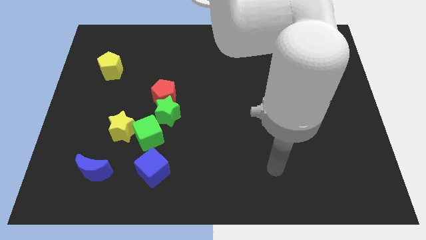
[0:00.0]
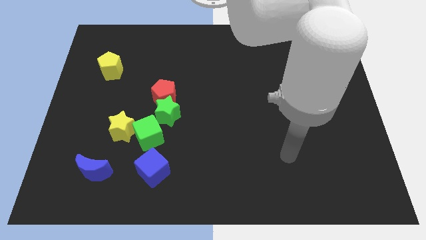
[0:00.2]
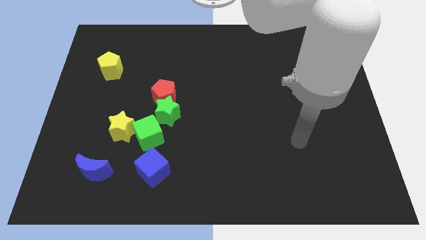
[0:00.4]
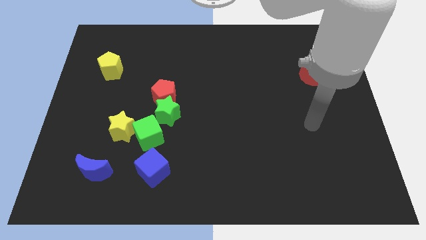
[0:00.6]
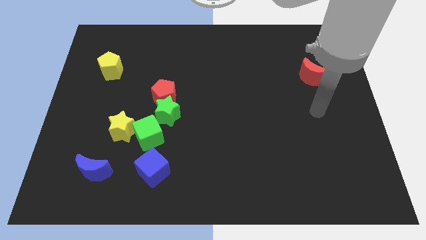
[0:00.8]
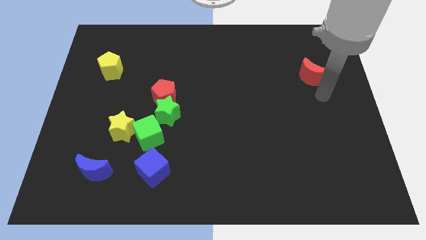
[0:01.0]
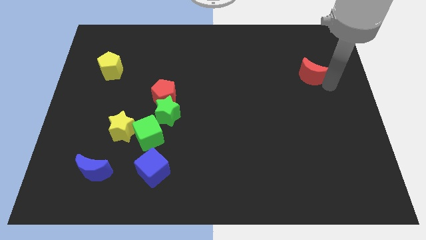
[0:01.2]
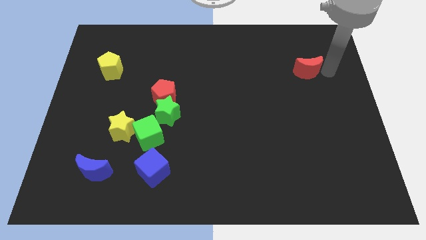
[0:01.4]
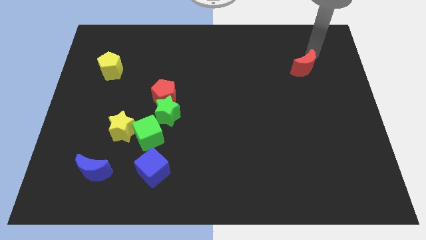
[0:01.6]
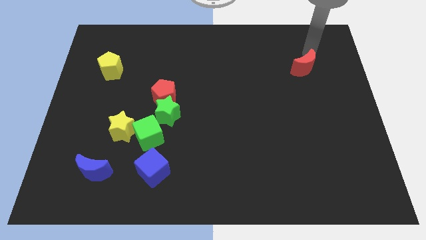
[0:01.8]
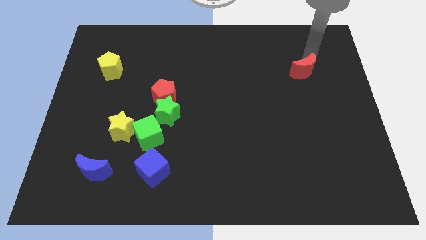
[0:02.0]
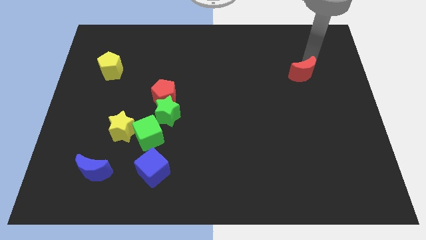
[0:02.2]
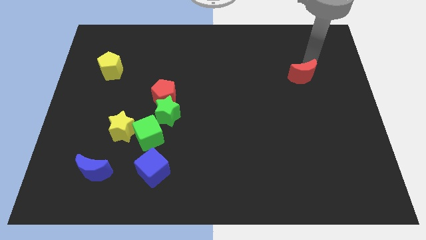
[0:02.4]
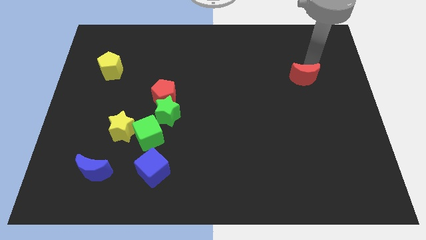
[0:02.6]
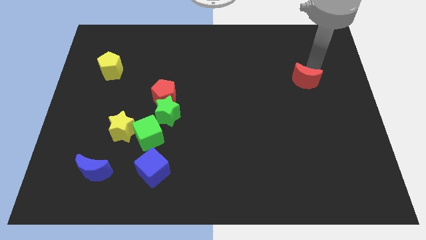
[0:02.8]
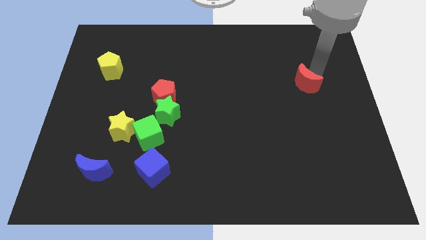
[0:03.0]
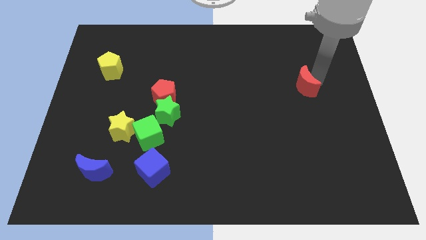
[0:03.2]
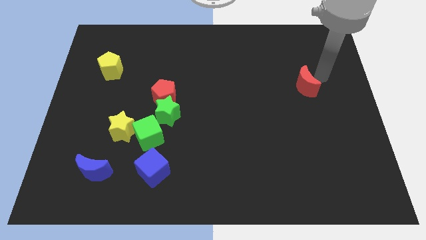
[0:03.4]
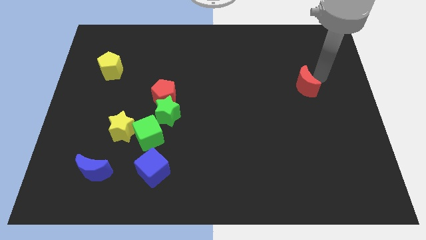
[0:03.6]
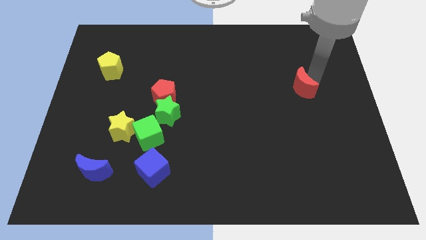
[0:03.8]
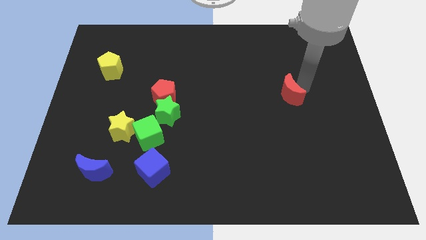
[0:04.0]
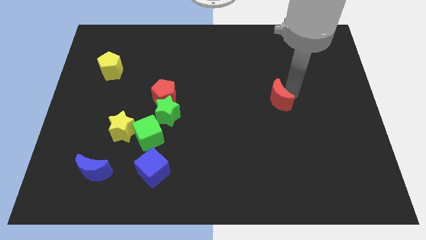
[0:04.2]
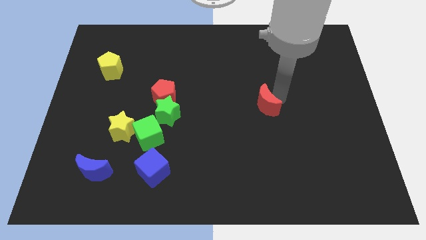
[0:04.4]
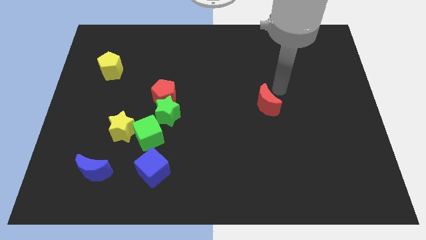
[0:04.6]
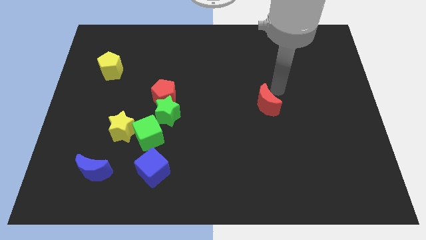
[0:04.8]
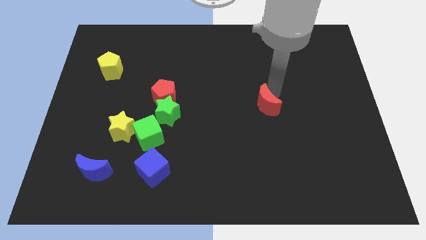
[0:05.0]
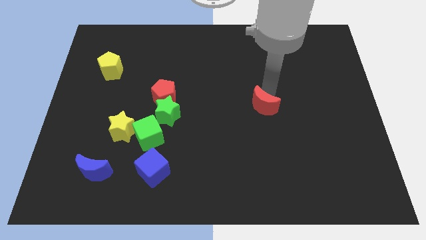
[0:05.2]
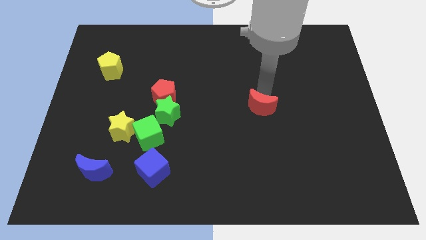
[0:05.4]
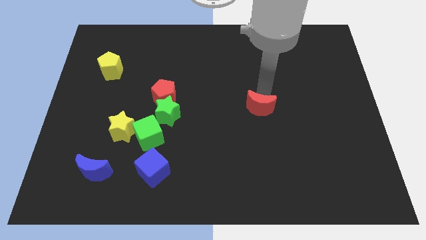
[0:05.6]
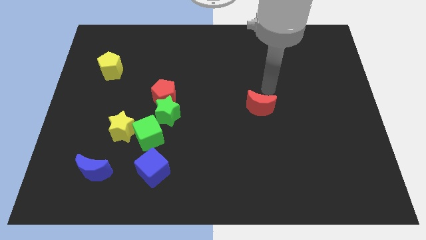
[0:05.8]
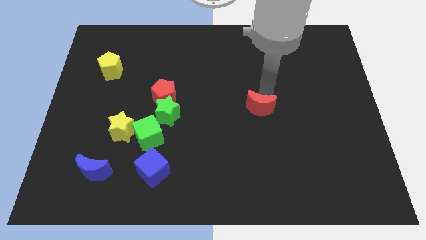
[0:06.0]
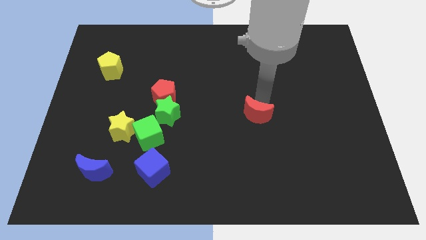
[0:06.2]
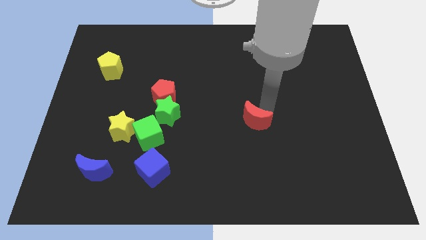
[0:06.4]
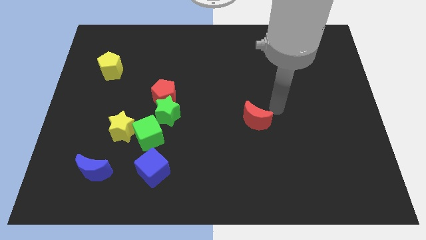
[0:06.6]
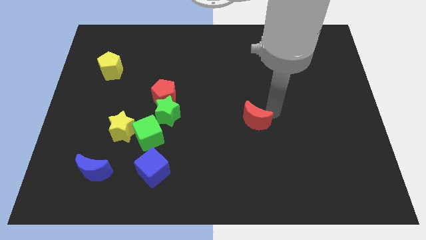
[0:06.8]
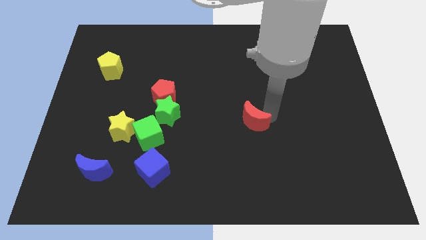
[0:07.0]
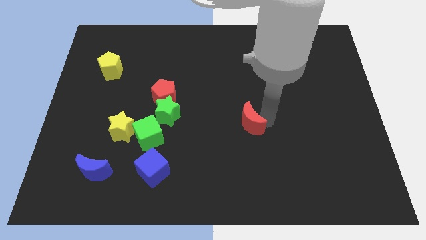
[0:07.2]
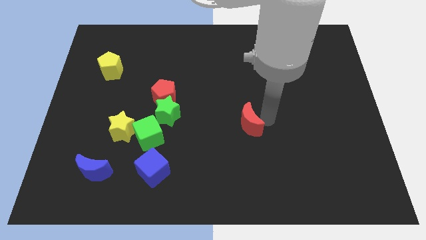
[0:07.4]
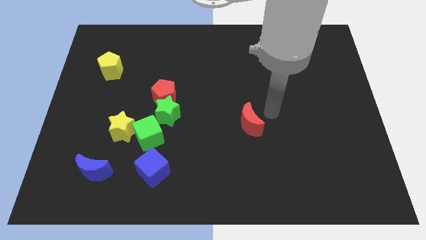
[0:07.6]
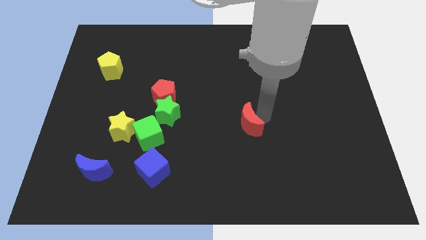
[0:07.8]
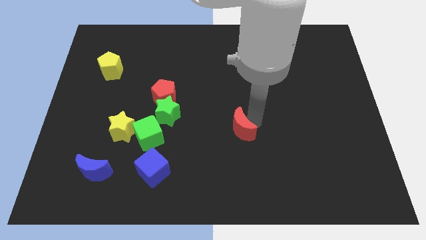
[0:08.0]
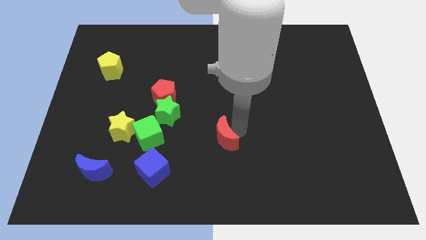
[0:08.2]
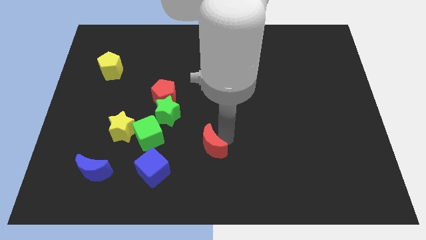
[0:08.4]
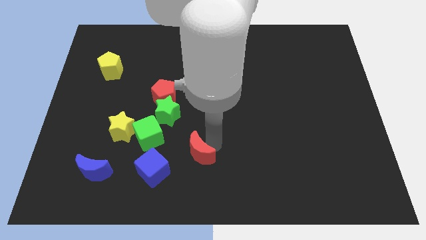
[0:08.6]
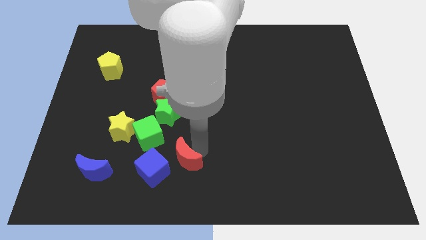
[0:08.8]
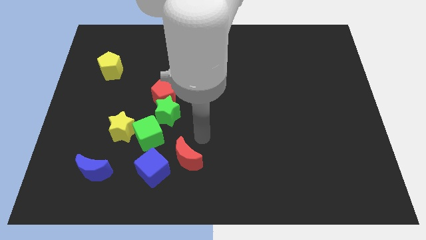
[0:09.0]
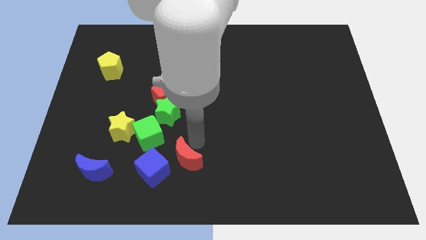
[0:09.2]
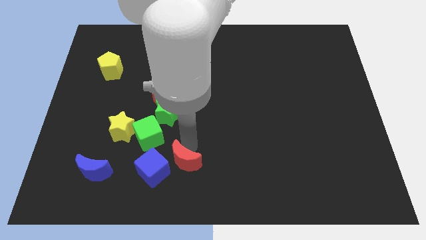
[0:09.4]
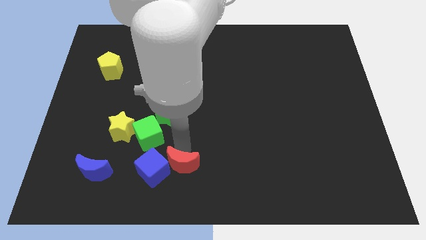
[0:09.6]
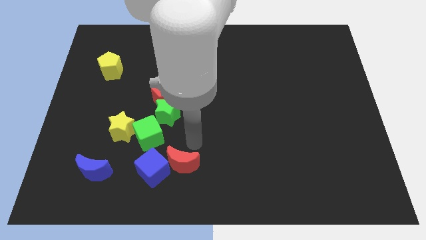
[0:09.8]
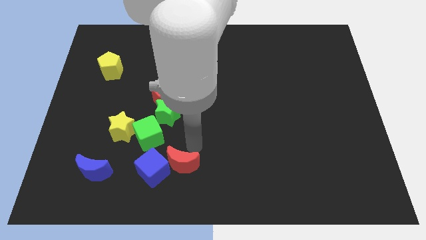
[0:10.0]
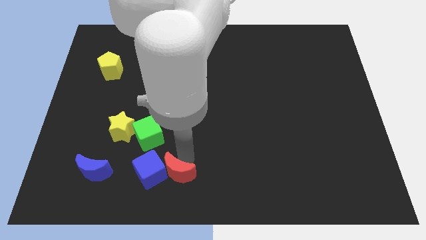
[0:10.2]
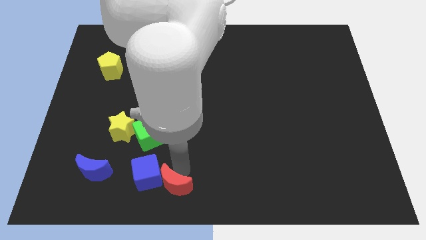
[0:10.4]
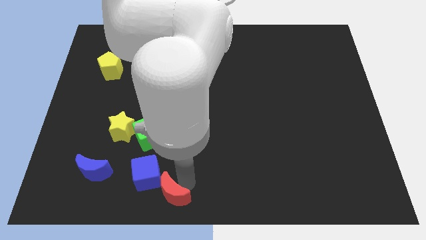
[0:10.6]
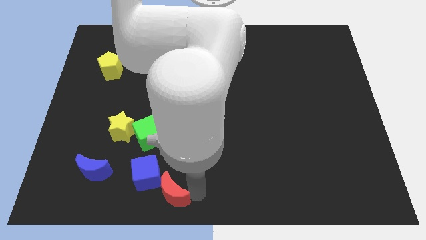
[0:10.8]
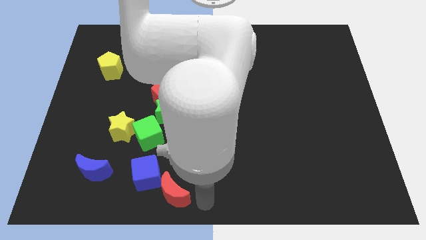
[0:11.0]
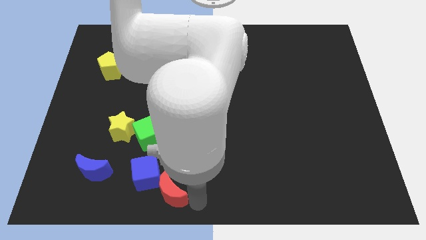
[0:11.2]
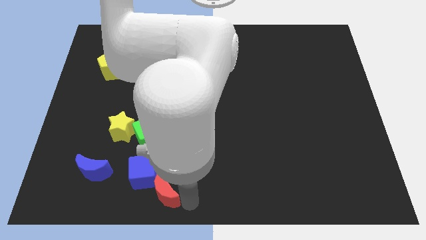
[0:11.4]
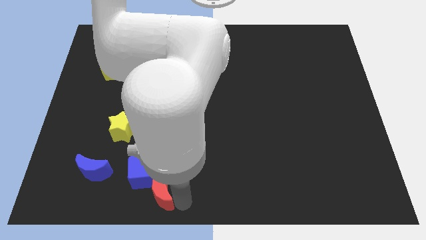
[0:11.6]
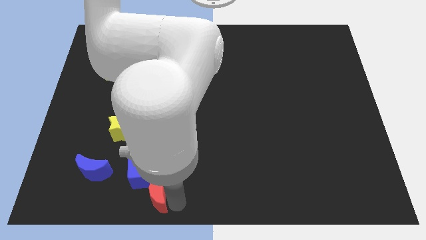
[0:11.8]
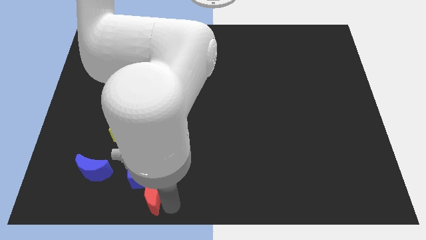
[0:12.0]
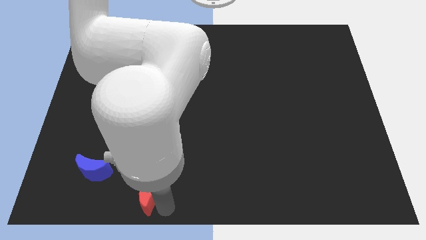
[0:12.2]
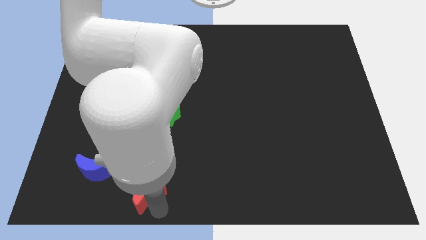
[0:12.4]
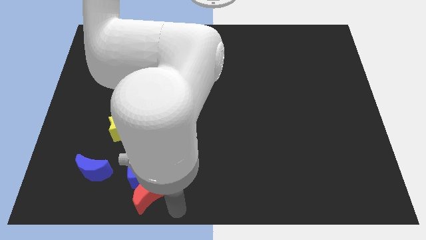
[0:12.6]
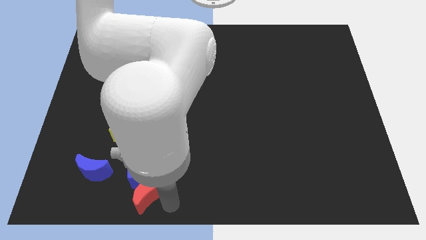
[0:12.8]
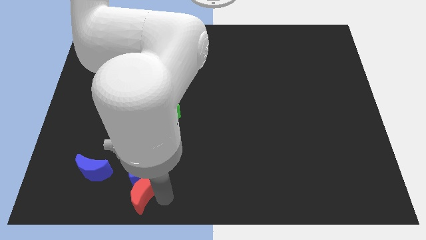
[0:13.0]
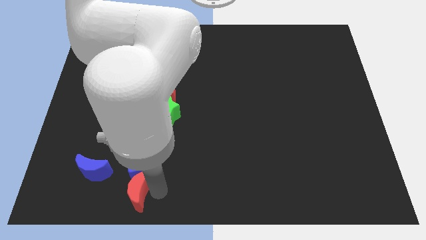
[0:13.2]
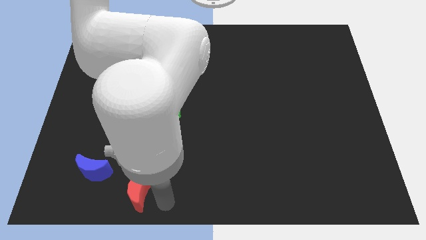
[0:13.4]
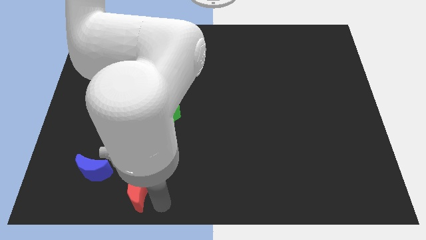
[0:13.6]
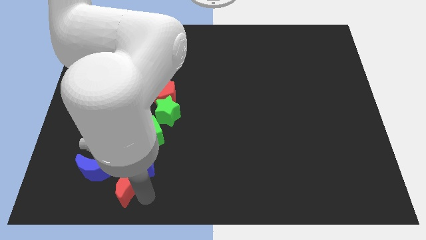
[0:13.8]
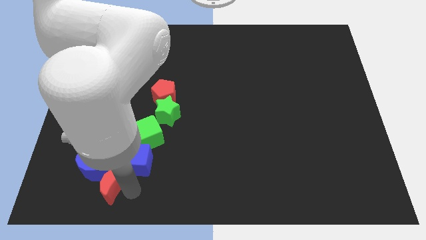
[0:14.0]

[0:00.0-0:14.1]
move the red moon close to the blue moon

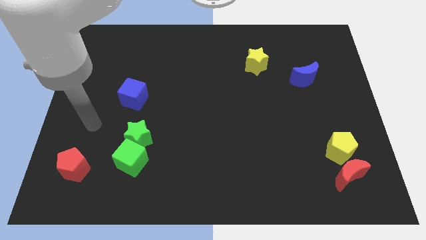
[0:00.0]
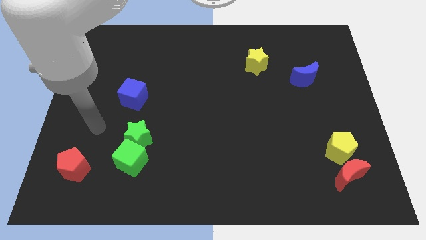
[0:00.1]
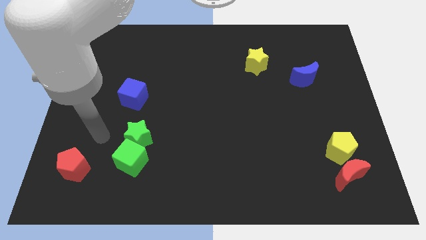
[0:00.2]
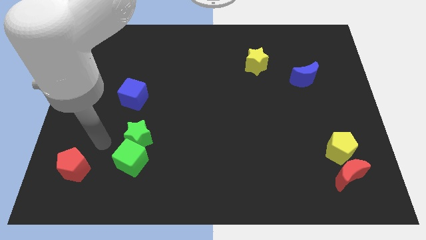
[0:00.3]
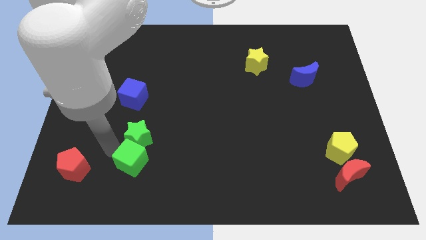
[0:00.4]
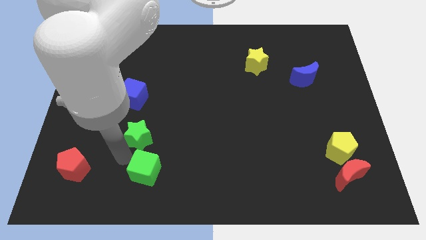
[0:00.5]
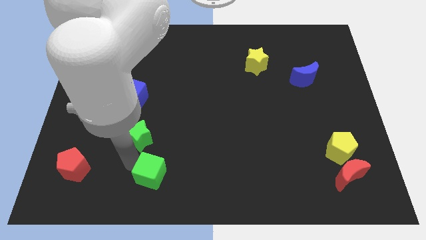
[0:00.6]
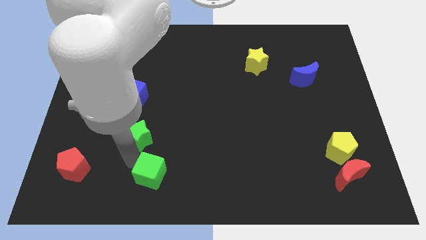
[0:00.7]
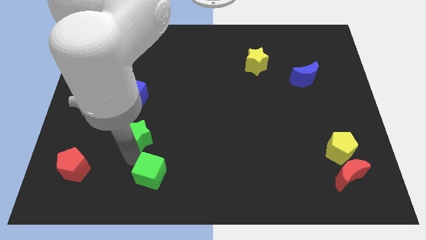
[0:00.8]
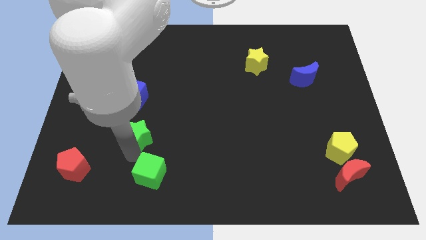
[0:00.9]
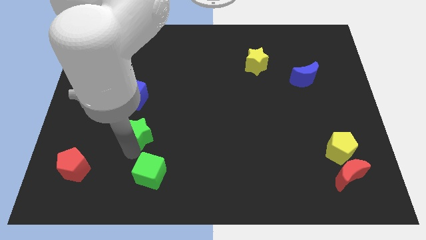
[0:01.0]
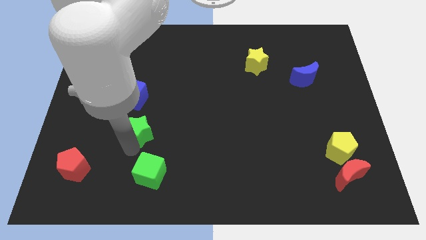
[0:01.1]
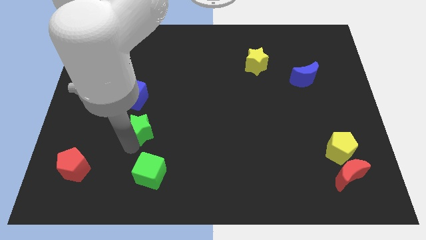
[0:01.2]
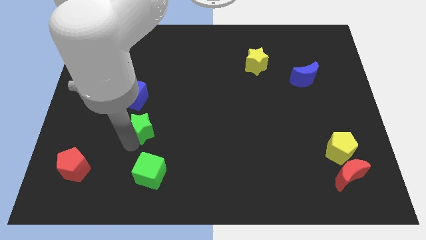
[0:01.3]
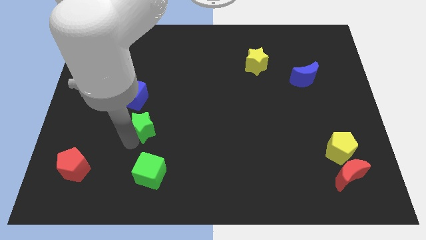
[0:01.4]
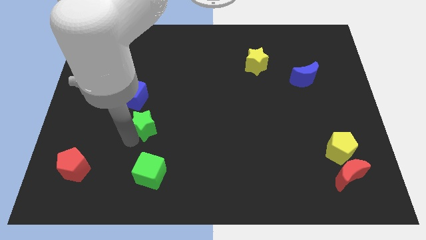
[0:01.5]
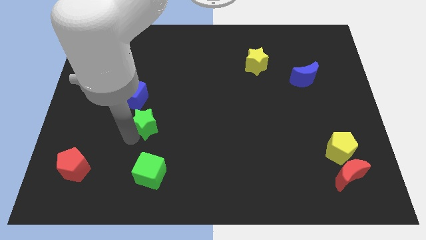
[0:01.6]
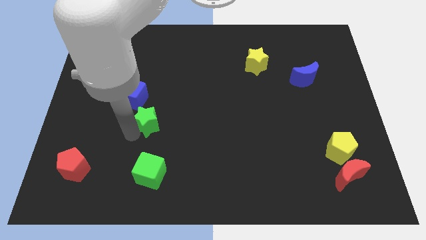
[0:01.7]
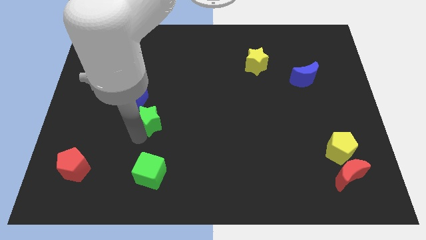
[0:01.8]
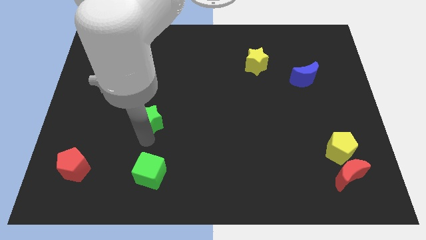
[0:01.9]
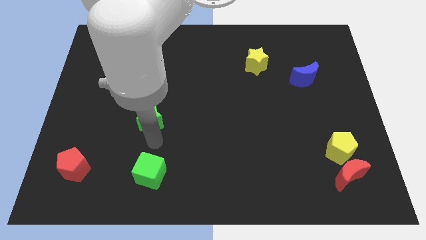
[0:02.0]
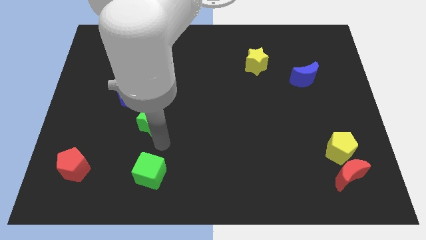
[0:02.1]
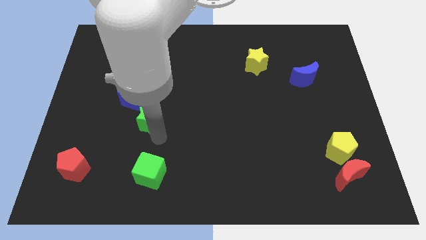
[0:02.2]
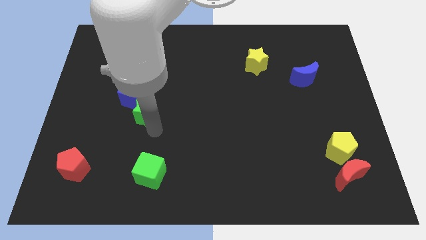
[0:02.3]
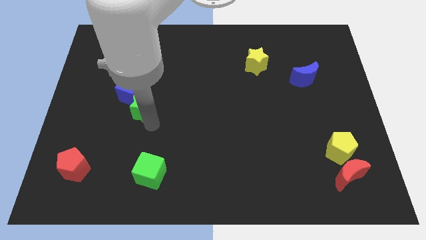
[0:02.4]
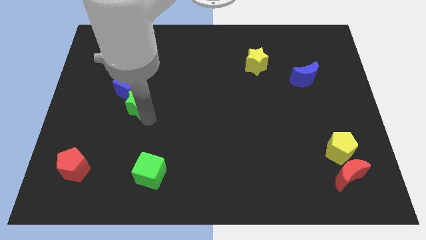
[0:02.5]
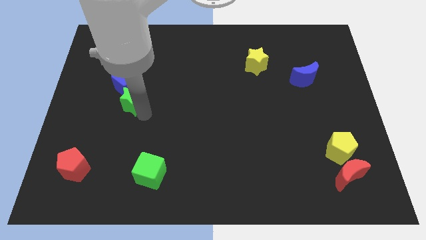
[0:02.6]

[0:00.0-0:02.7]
slide the green star next to the blue cube
